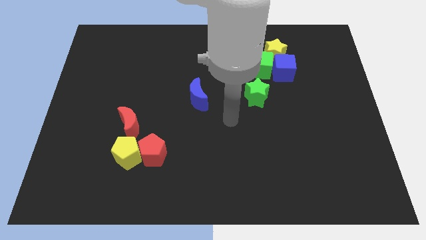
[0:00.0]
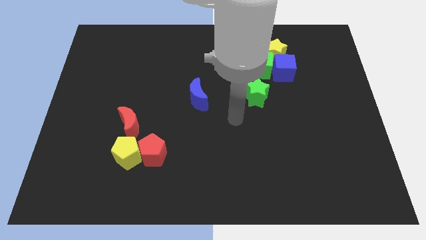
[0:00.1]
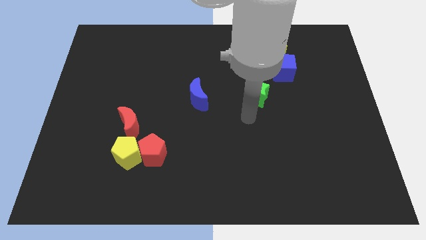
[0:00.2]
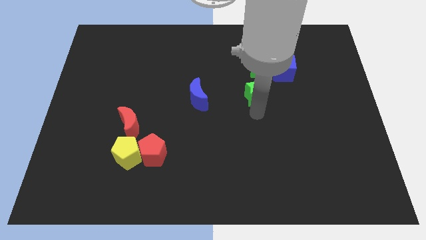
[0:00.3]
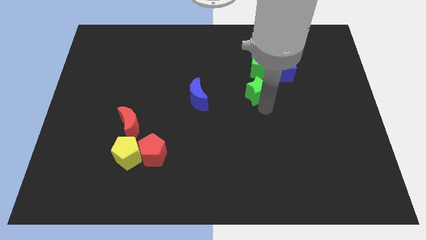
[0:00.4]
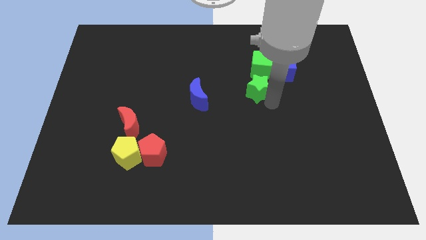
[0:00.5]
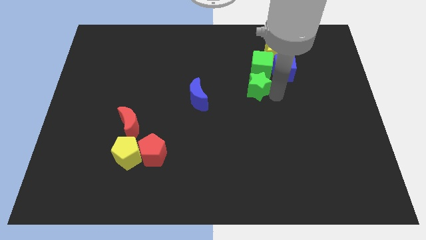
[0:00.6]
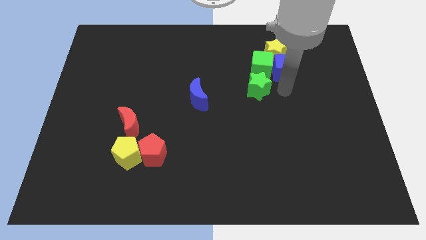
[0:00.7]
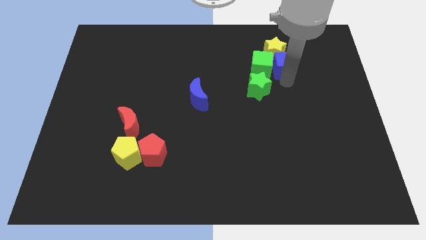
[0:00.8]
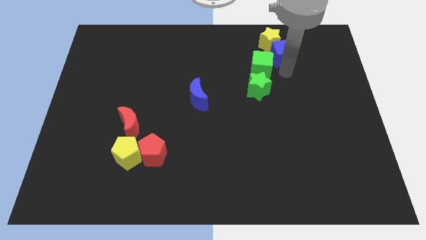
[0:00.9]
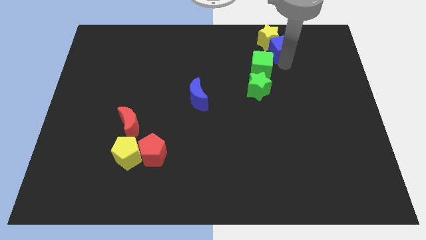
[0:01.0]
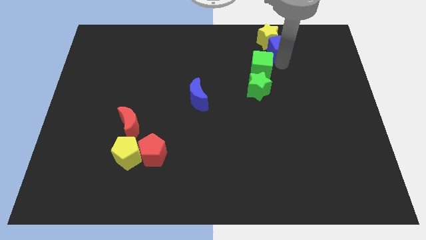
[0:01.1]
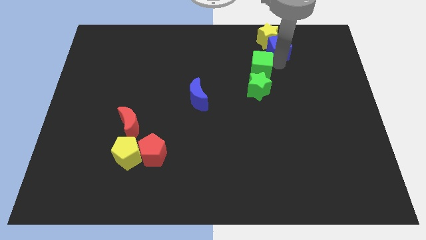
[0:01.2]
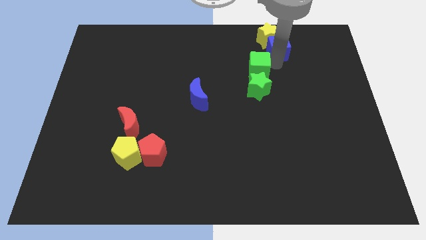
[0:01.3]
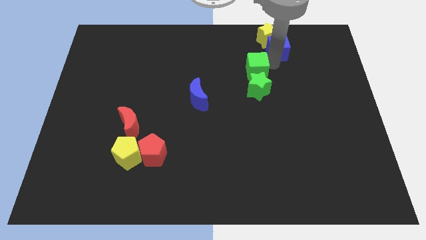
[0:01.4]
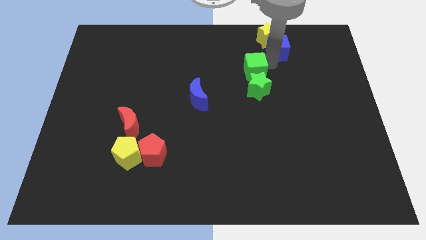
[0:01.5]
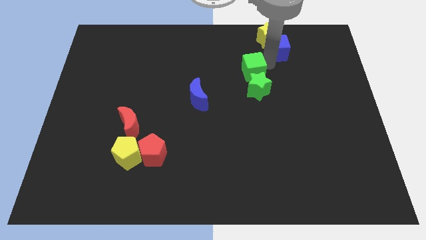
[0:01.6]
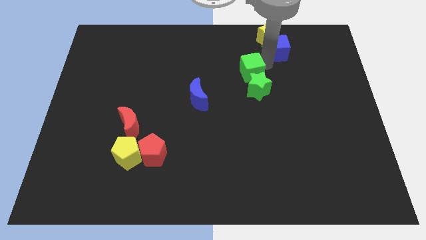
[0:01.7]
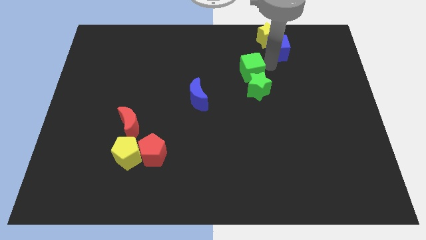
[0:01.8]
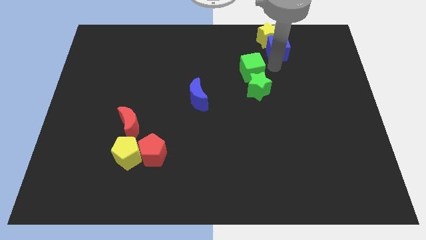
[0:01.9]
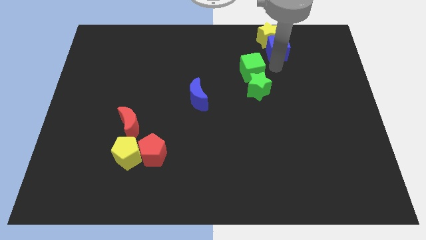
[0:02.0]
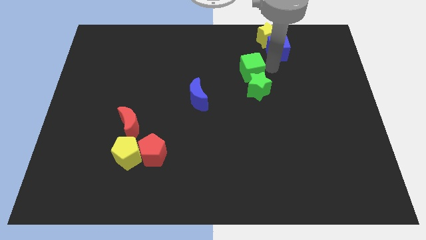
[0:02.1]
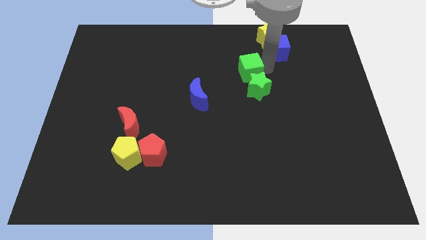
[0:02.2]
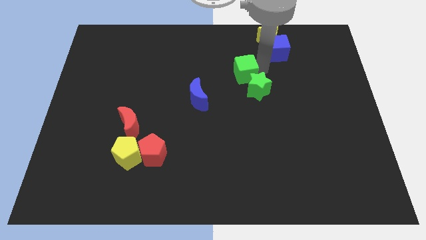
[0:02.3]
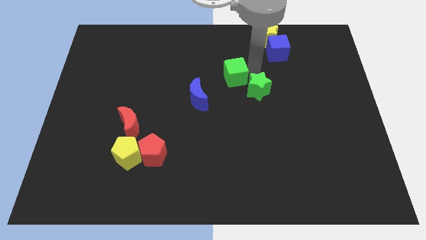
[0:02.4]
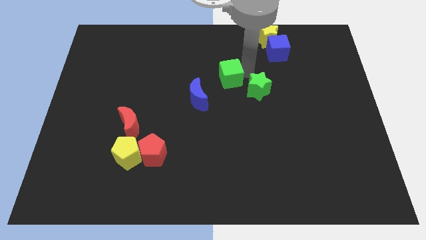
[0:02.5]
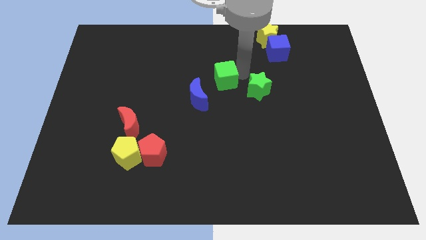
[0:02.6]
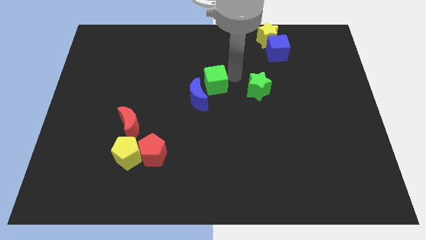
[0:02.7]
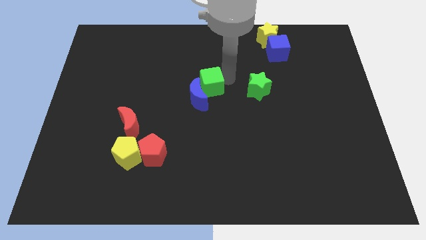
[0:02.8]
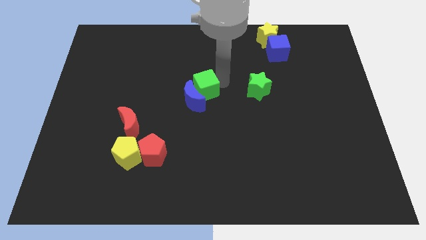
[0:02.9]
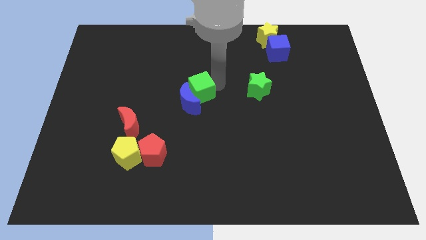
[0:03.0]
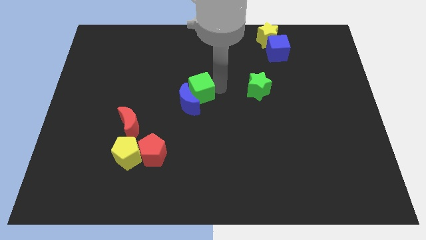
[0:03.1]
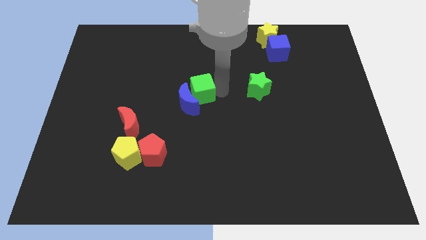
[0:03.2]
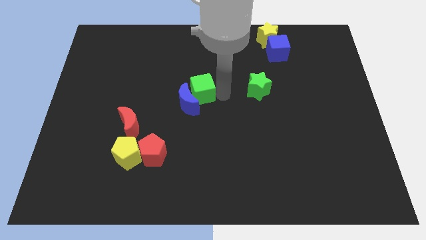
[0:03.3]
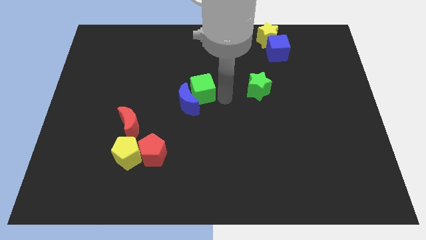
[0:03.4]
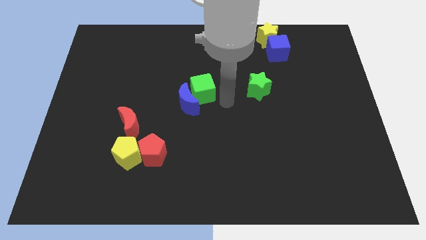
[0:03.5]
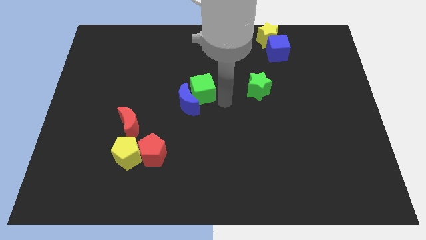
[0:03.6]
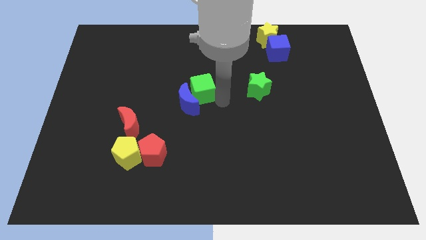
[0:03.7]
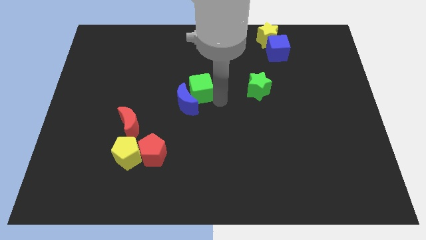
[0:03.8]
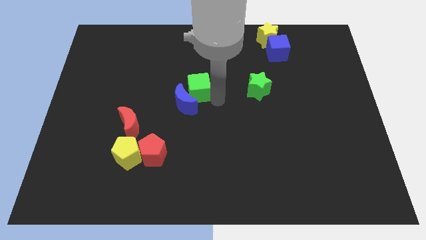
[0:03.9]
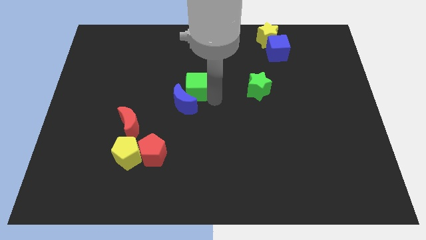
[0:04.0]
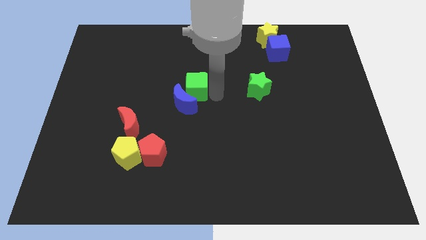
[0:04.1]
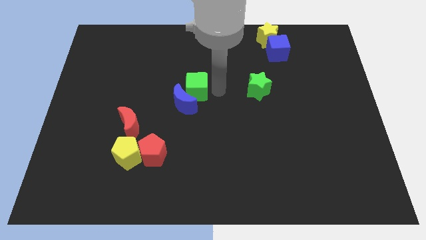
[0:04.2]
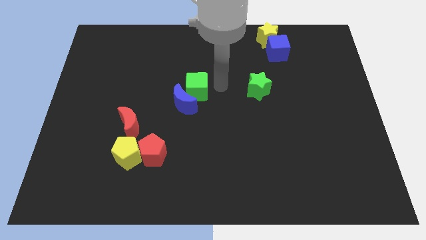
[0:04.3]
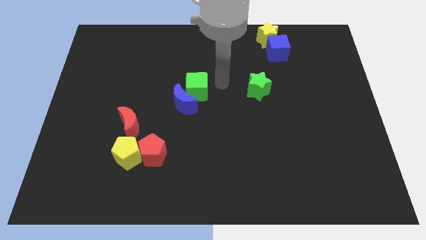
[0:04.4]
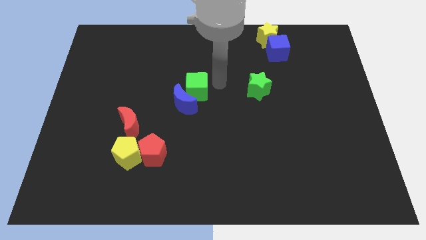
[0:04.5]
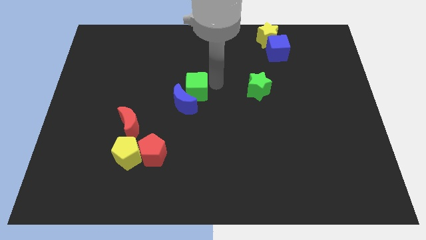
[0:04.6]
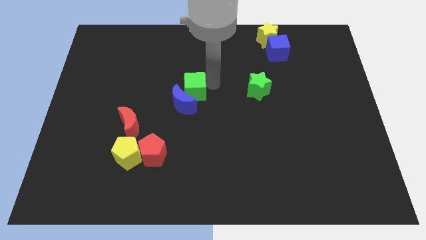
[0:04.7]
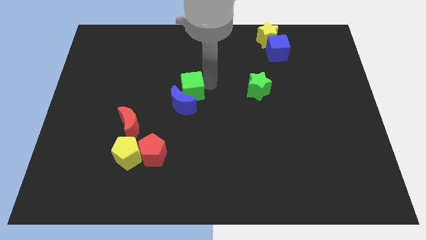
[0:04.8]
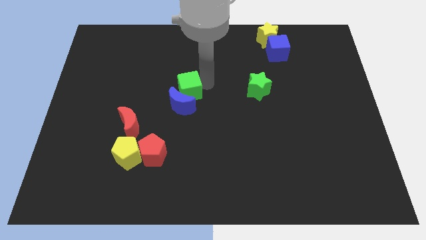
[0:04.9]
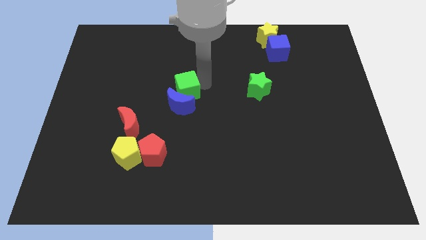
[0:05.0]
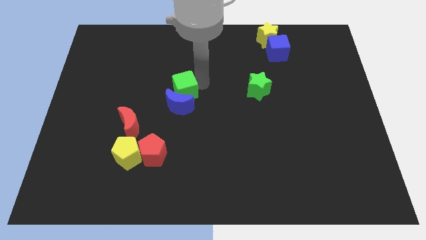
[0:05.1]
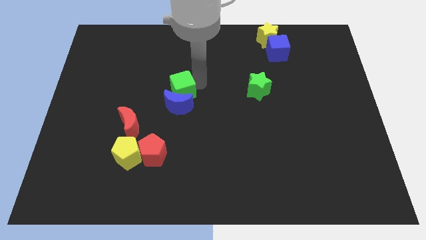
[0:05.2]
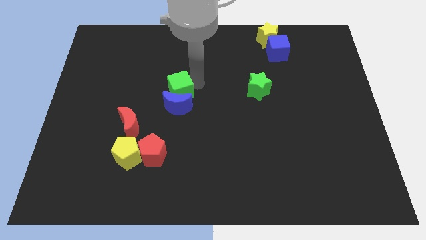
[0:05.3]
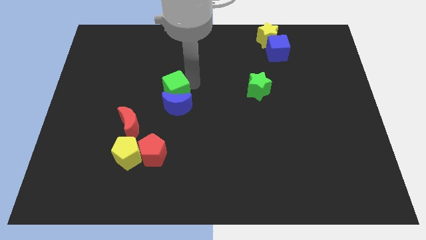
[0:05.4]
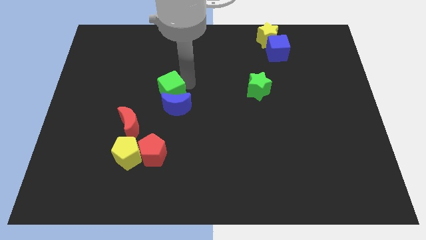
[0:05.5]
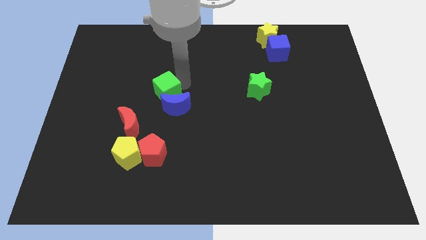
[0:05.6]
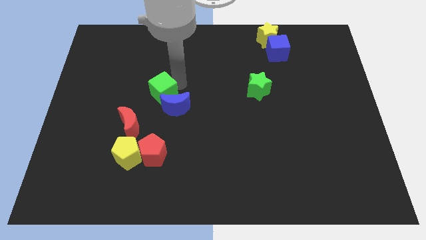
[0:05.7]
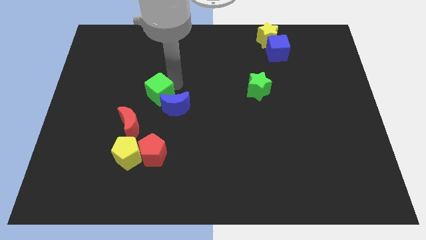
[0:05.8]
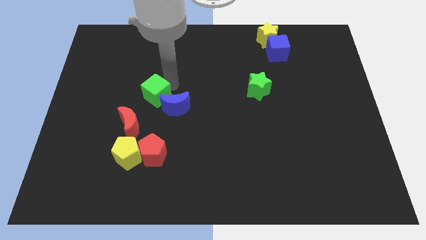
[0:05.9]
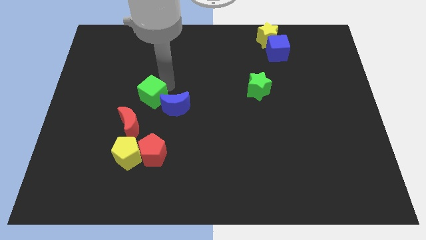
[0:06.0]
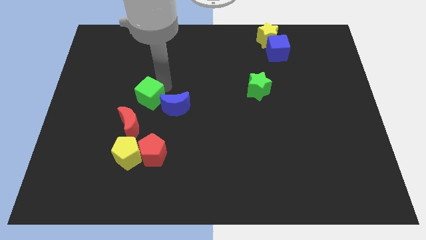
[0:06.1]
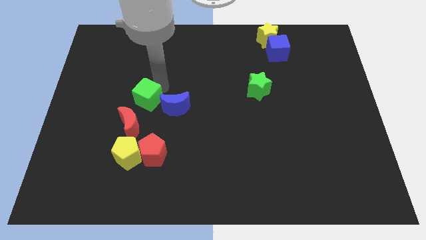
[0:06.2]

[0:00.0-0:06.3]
put the green cube to the top side of the yellow pentagon

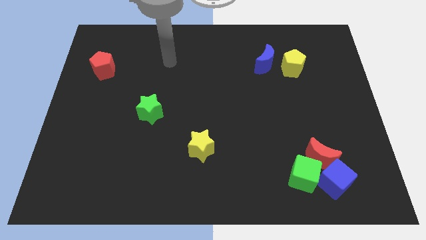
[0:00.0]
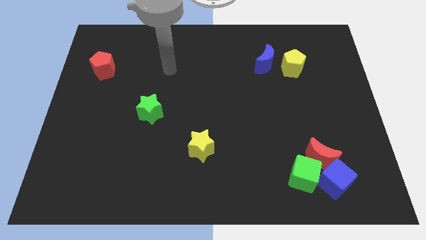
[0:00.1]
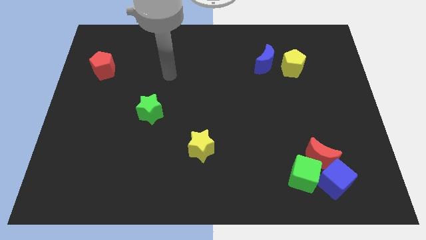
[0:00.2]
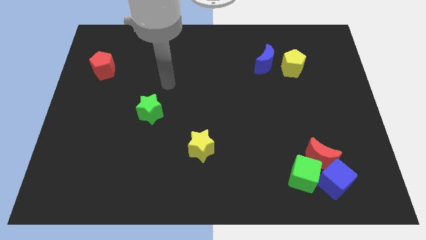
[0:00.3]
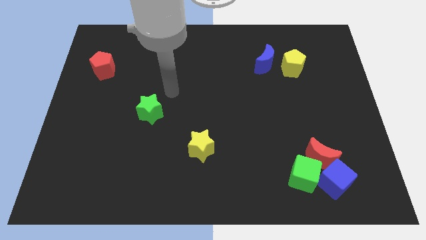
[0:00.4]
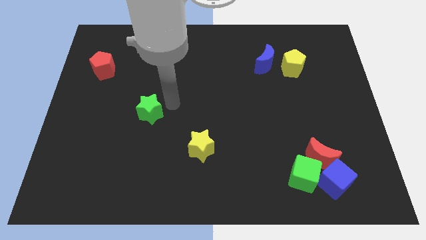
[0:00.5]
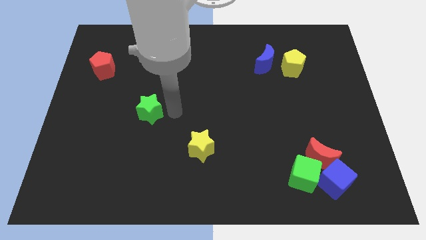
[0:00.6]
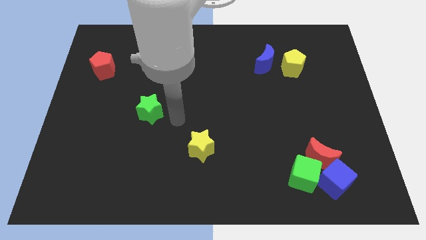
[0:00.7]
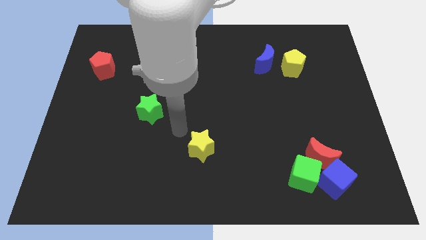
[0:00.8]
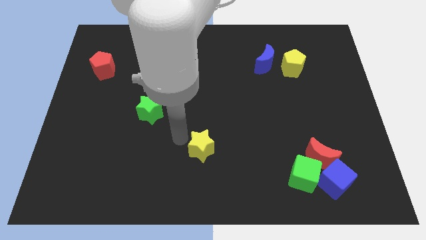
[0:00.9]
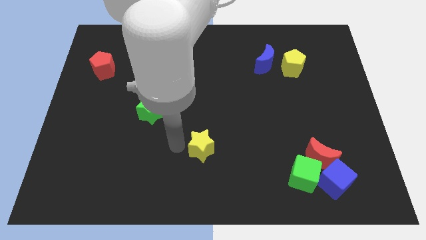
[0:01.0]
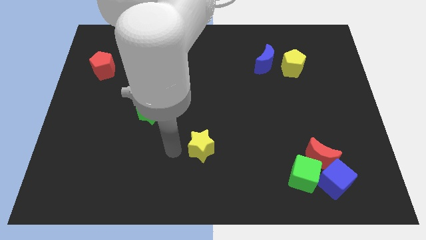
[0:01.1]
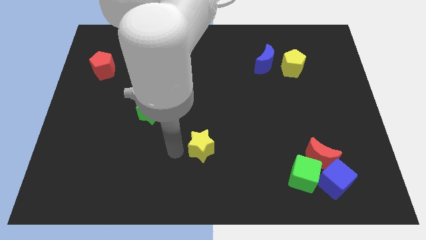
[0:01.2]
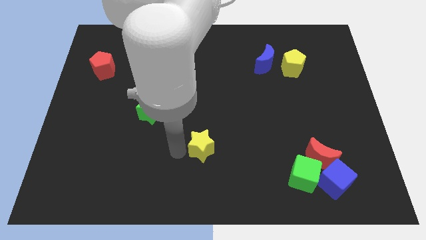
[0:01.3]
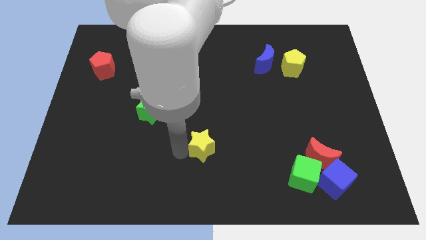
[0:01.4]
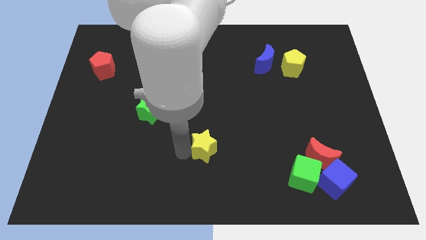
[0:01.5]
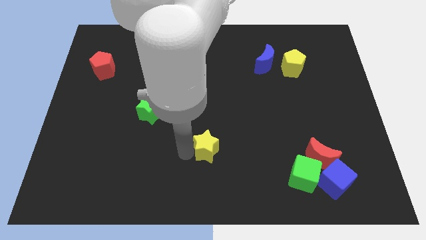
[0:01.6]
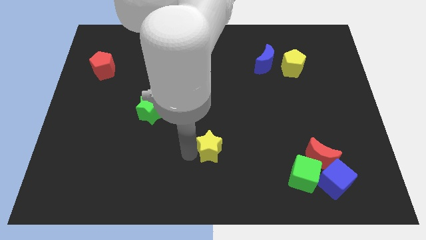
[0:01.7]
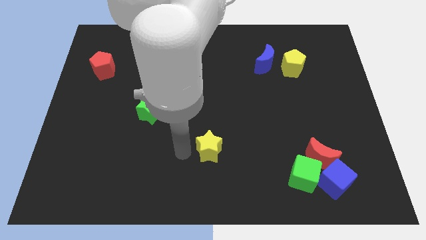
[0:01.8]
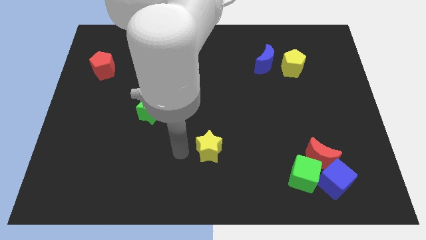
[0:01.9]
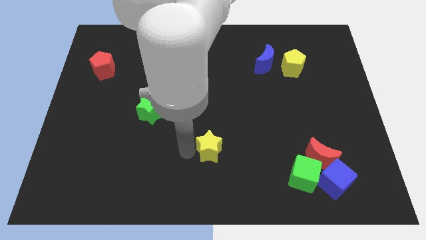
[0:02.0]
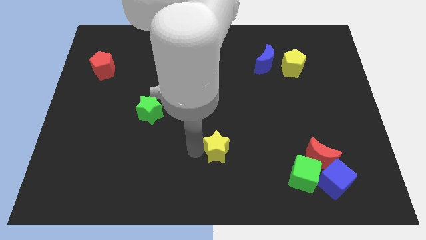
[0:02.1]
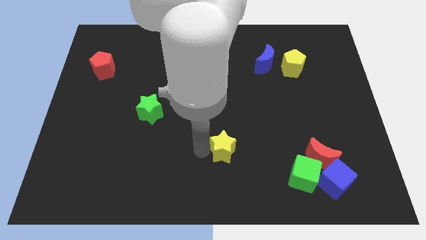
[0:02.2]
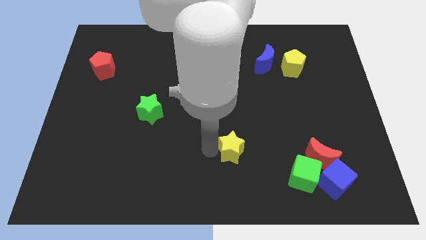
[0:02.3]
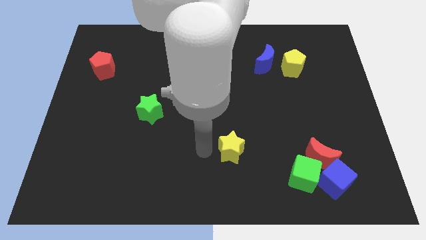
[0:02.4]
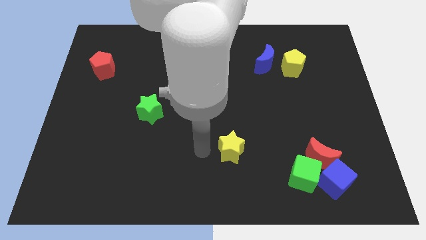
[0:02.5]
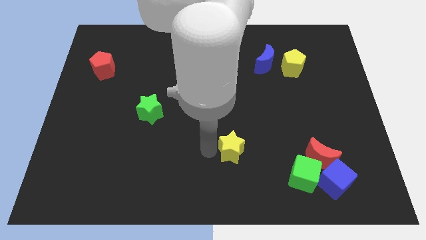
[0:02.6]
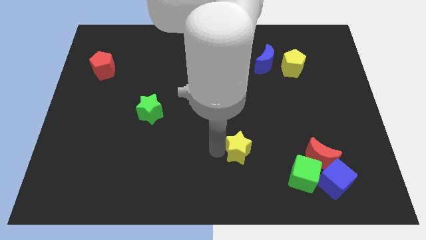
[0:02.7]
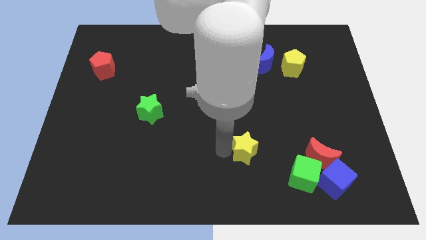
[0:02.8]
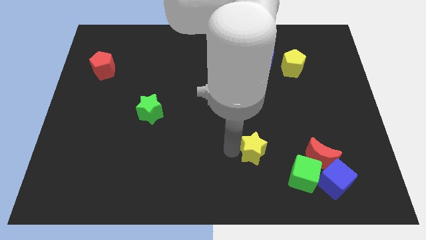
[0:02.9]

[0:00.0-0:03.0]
move the yellow star to the top left side of the green cube
